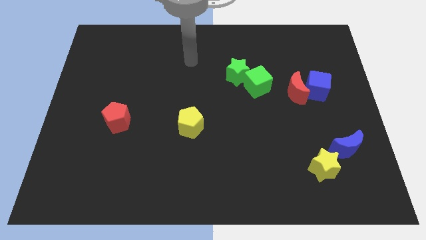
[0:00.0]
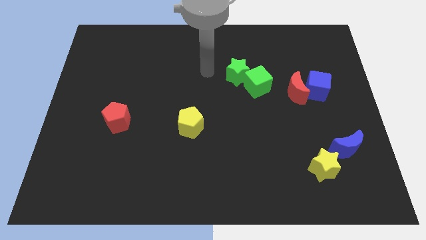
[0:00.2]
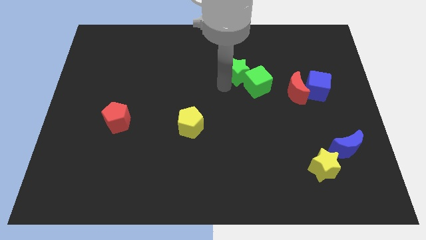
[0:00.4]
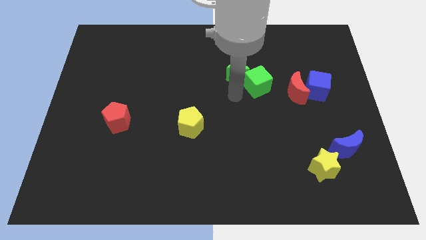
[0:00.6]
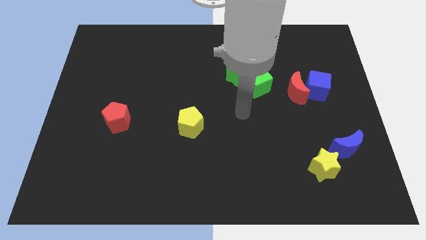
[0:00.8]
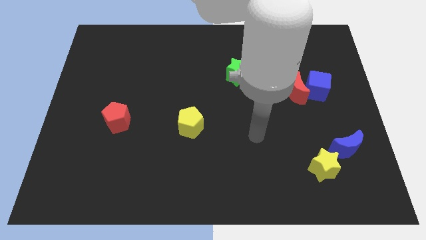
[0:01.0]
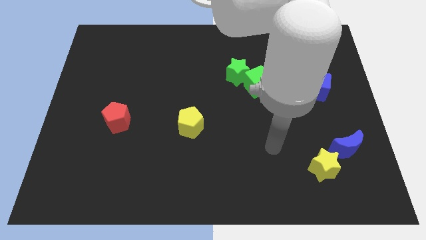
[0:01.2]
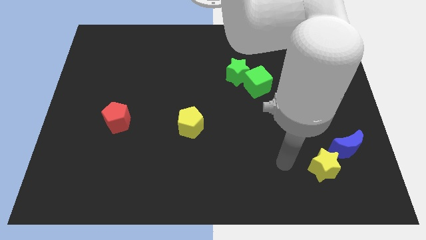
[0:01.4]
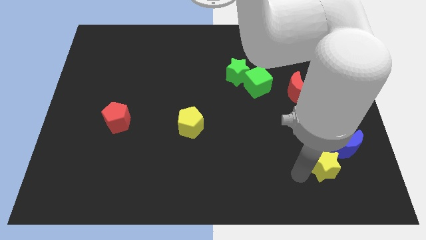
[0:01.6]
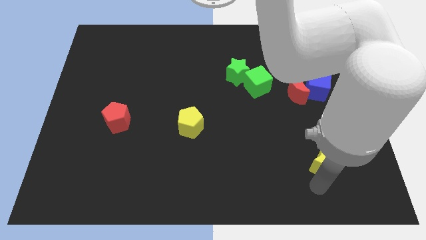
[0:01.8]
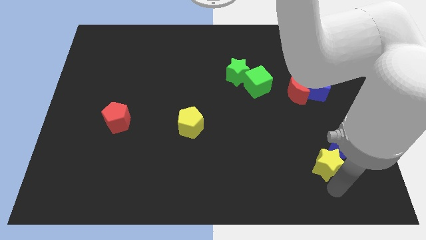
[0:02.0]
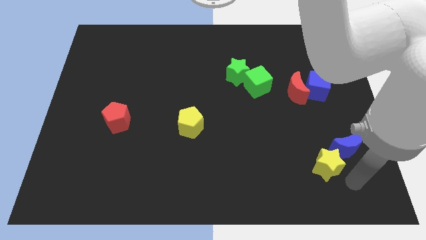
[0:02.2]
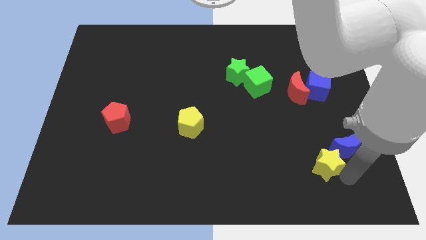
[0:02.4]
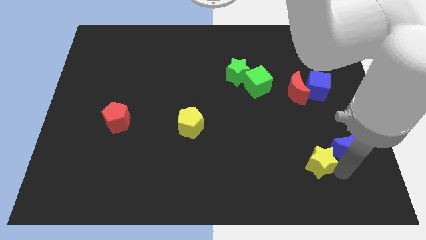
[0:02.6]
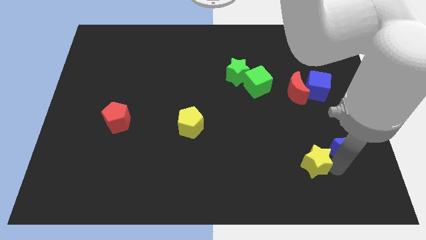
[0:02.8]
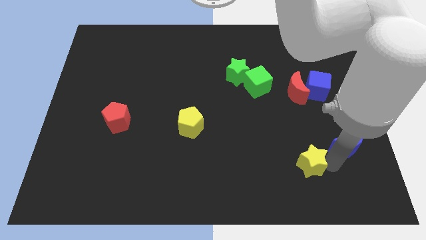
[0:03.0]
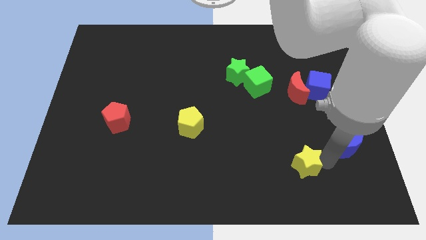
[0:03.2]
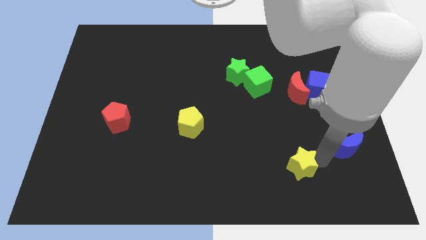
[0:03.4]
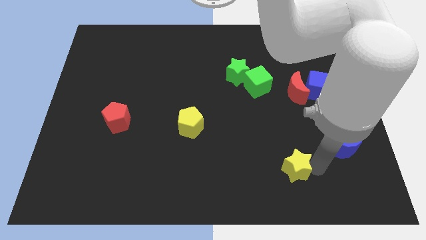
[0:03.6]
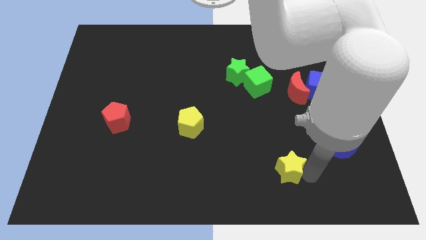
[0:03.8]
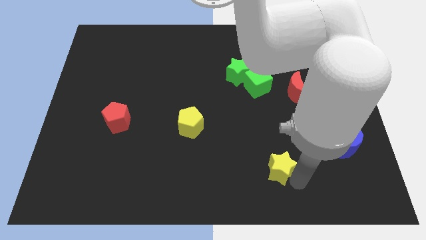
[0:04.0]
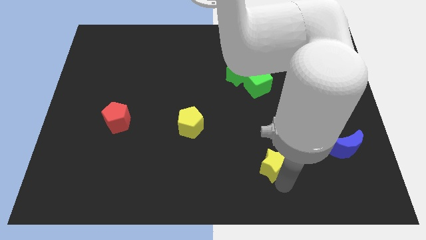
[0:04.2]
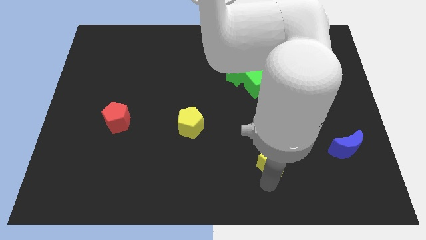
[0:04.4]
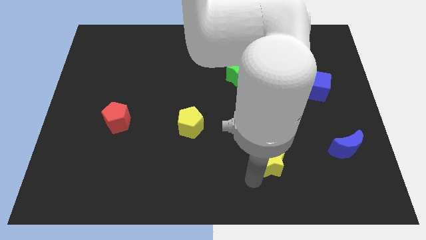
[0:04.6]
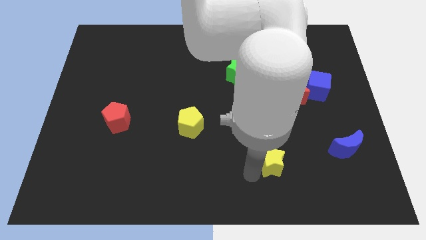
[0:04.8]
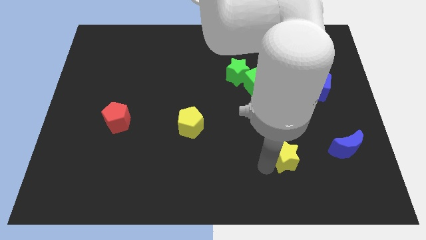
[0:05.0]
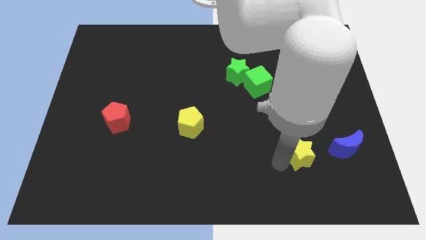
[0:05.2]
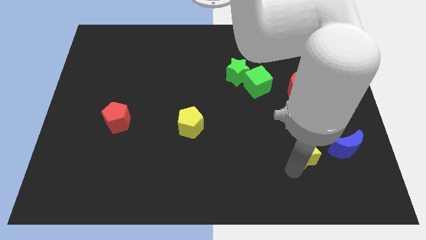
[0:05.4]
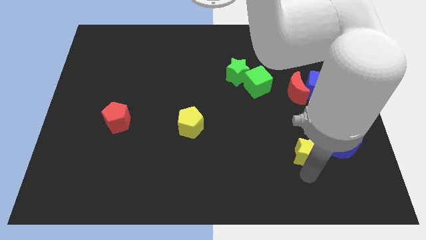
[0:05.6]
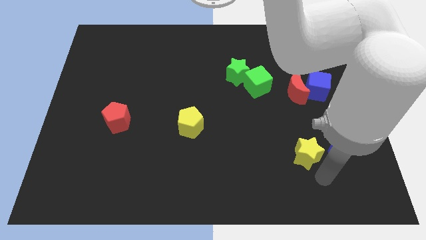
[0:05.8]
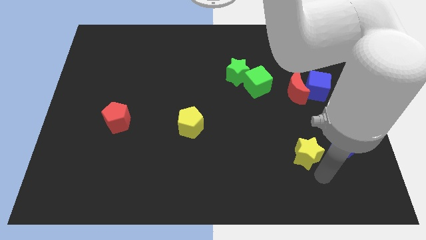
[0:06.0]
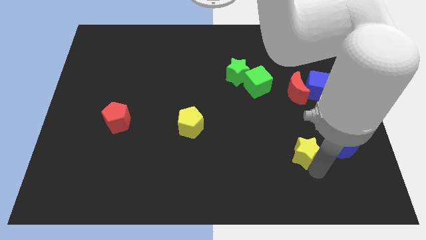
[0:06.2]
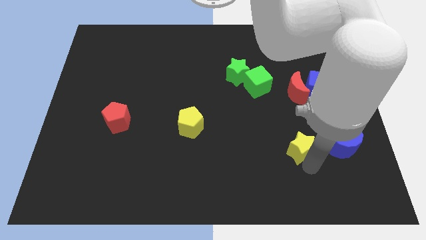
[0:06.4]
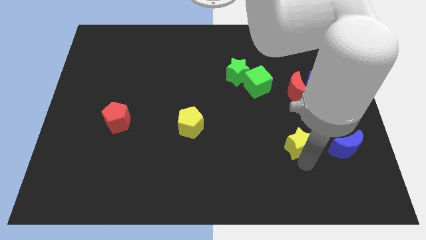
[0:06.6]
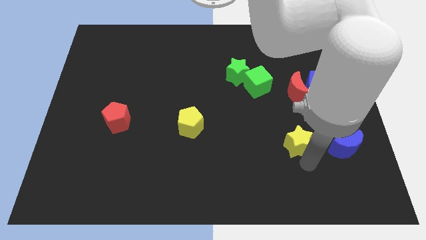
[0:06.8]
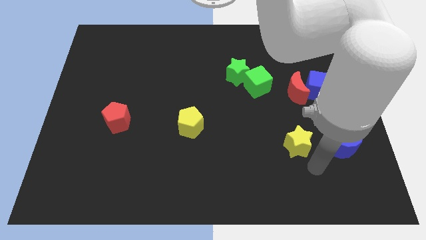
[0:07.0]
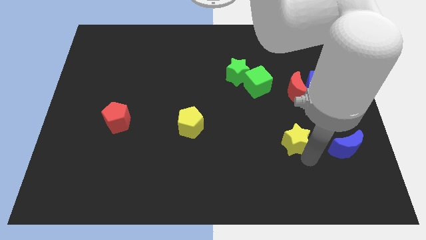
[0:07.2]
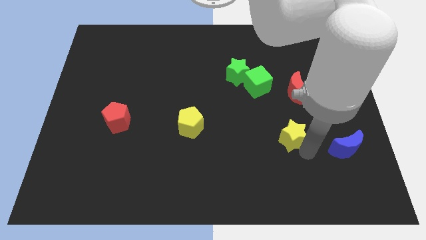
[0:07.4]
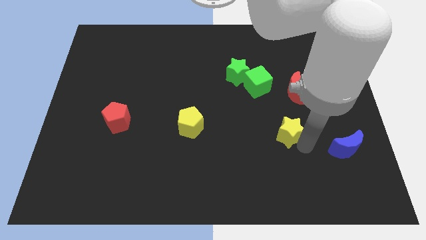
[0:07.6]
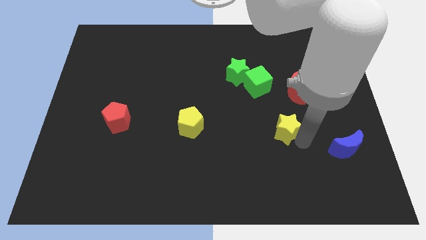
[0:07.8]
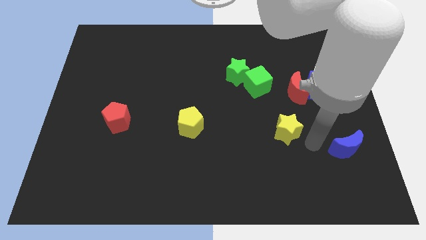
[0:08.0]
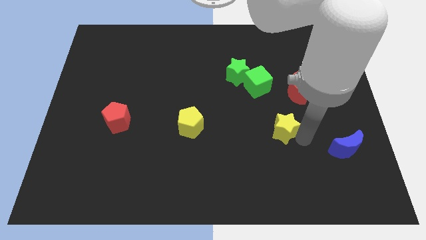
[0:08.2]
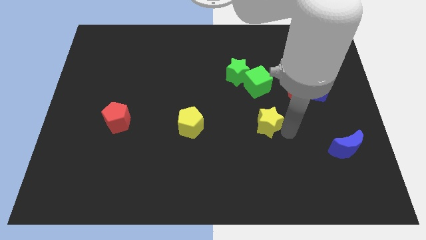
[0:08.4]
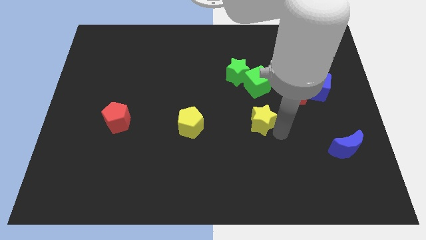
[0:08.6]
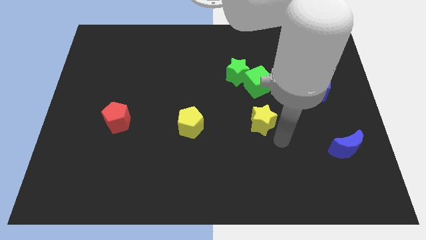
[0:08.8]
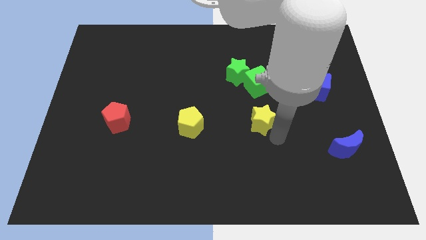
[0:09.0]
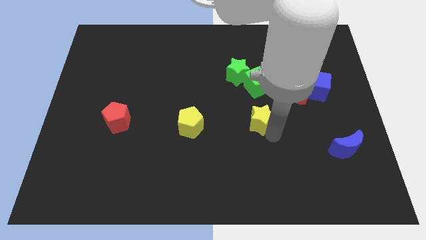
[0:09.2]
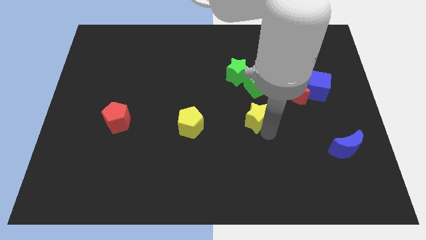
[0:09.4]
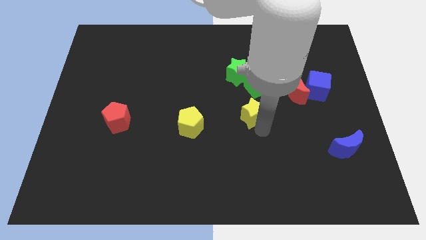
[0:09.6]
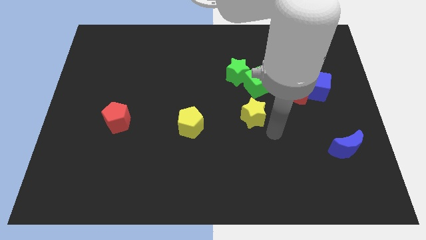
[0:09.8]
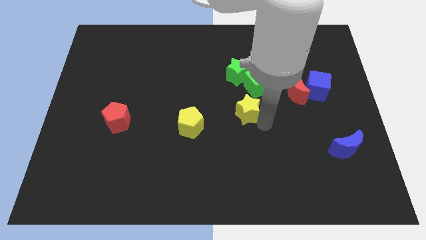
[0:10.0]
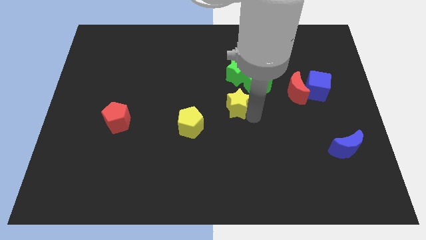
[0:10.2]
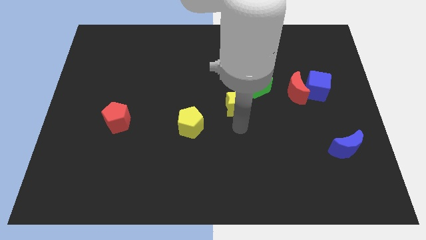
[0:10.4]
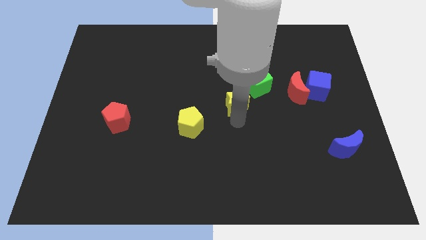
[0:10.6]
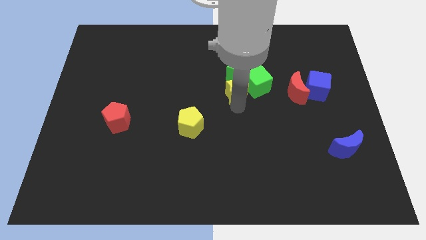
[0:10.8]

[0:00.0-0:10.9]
move the yellow star towards the green star

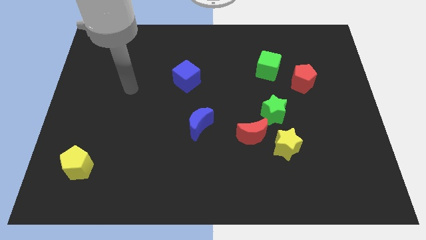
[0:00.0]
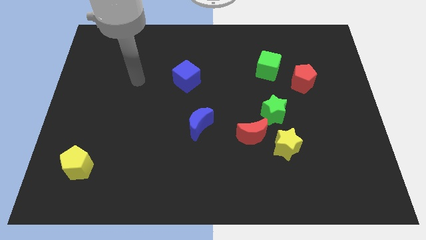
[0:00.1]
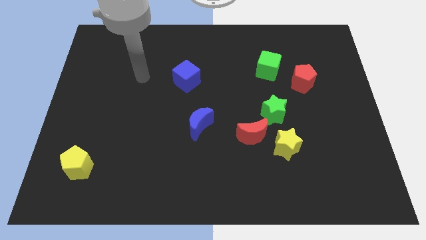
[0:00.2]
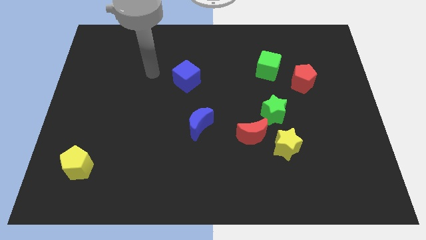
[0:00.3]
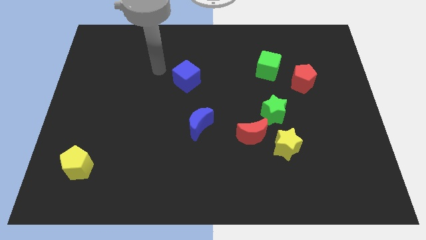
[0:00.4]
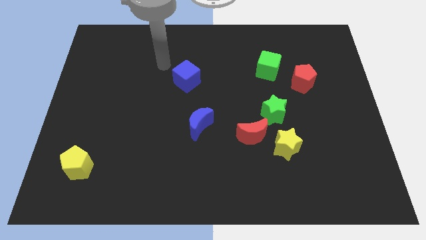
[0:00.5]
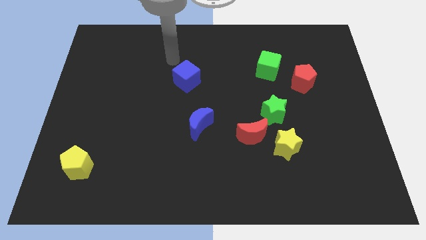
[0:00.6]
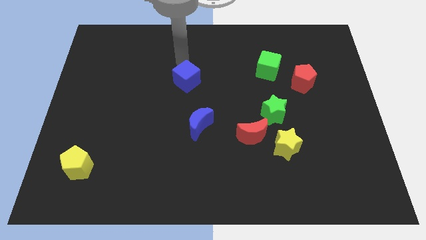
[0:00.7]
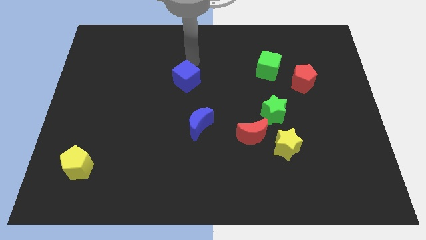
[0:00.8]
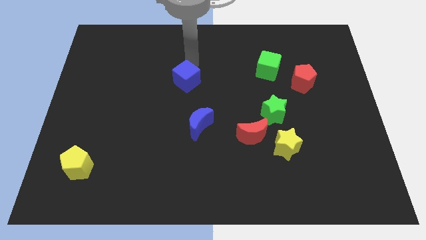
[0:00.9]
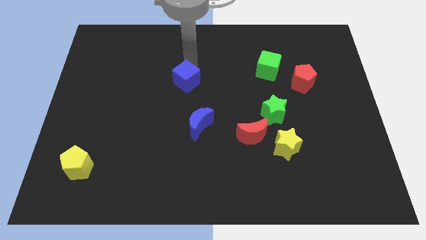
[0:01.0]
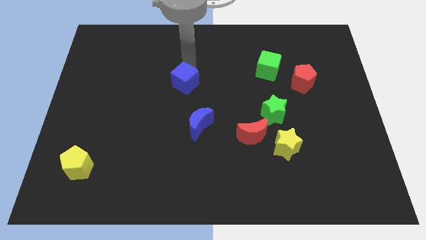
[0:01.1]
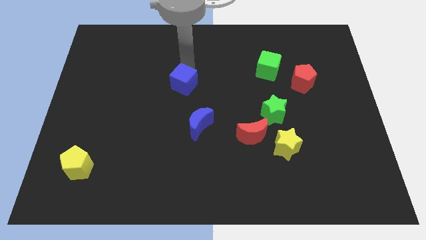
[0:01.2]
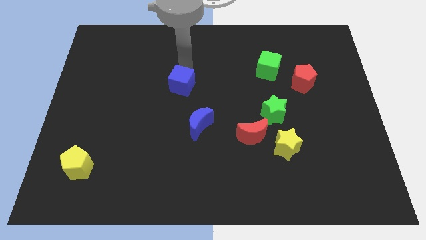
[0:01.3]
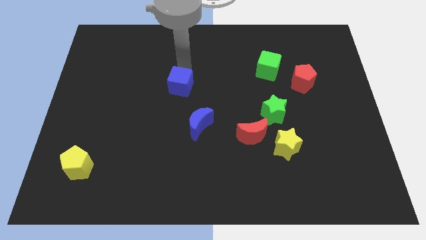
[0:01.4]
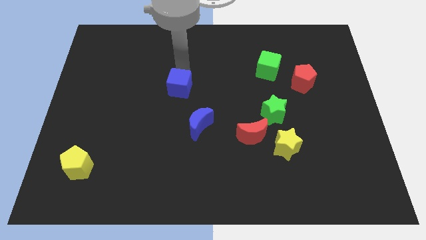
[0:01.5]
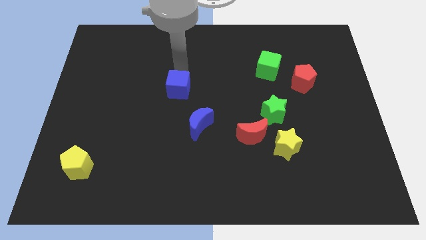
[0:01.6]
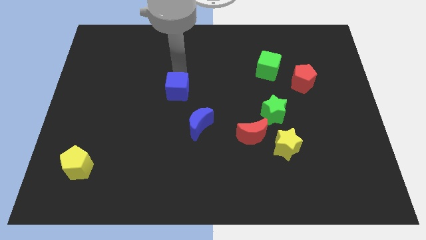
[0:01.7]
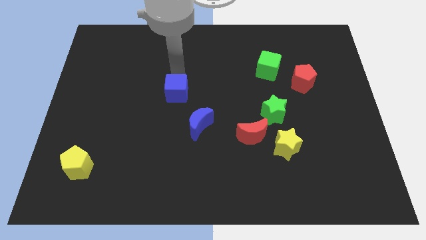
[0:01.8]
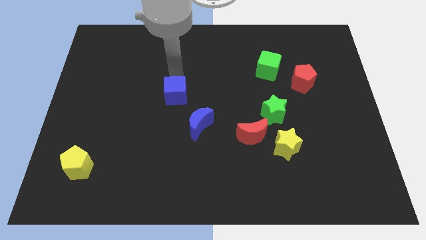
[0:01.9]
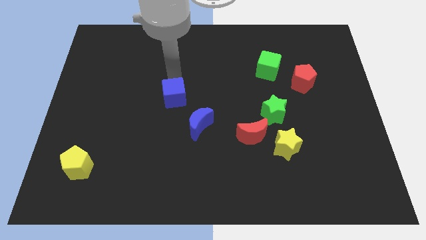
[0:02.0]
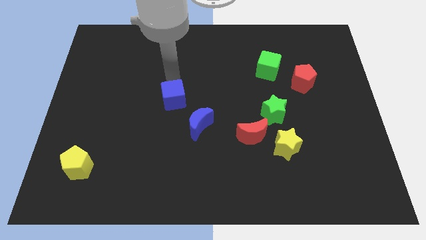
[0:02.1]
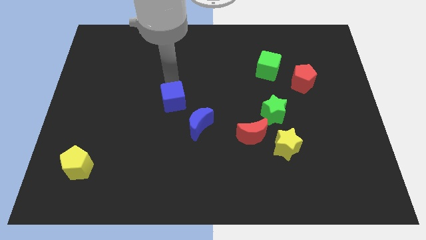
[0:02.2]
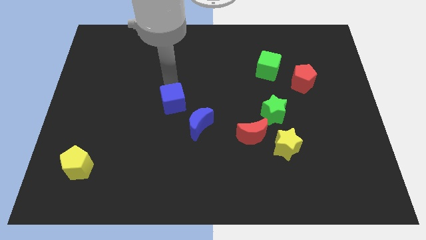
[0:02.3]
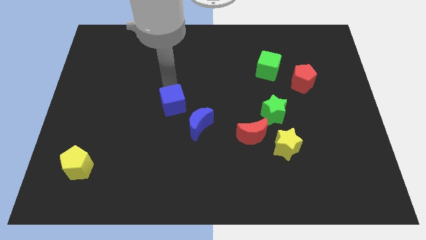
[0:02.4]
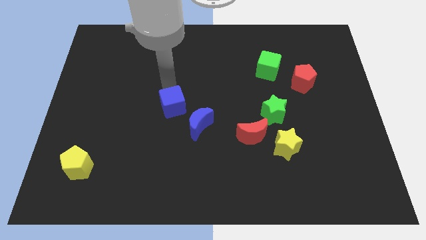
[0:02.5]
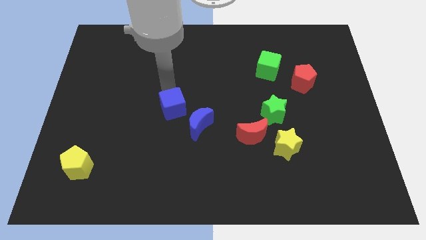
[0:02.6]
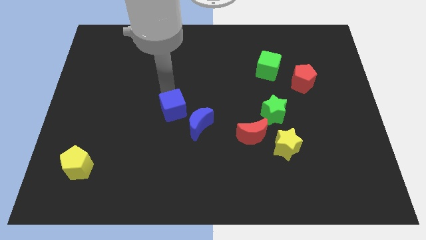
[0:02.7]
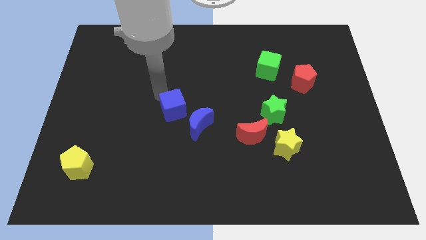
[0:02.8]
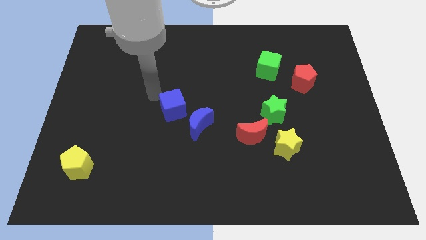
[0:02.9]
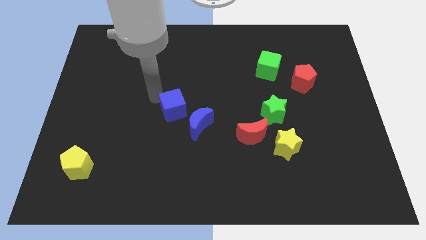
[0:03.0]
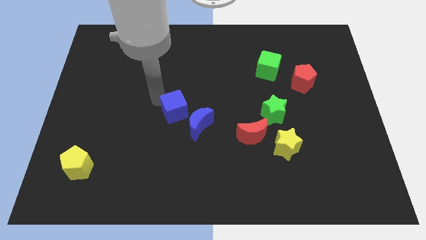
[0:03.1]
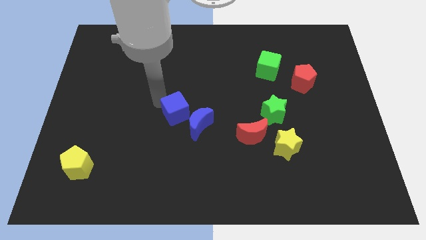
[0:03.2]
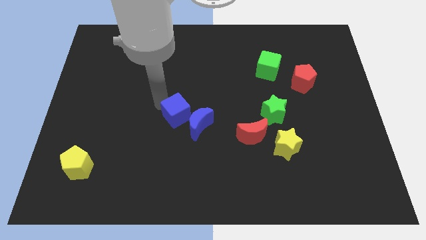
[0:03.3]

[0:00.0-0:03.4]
put the blue cube close to the blue moon
